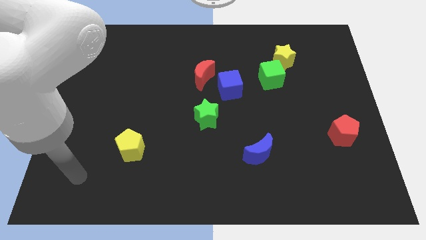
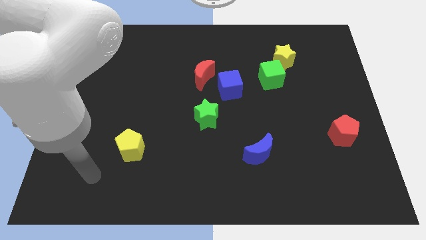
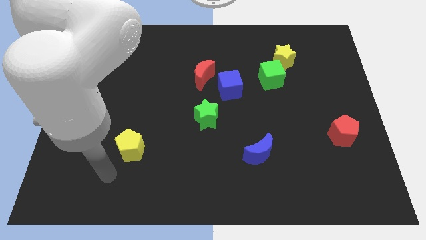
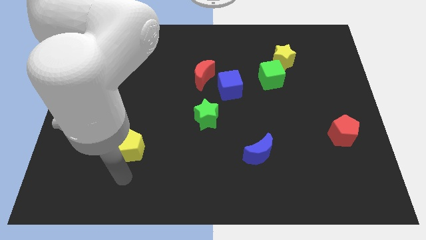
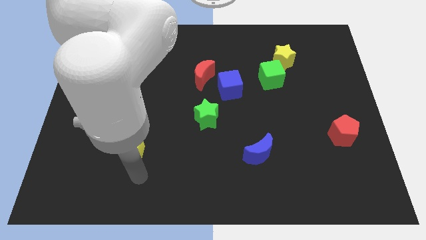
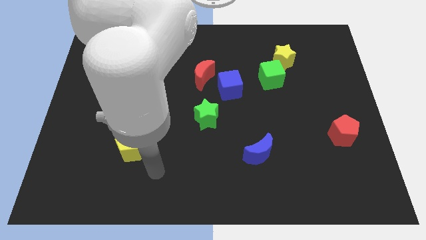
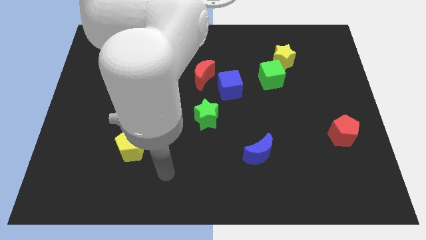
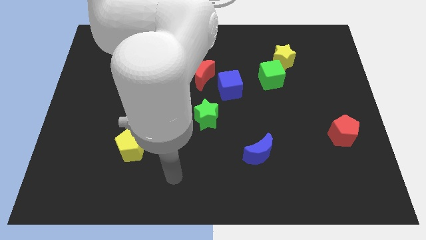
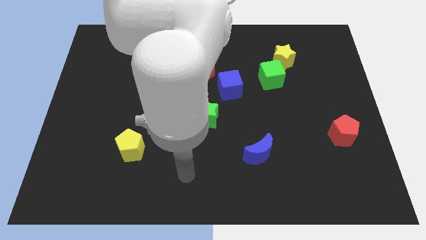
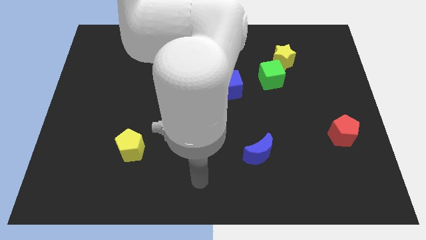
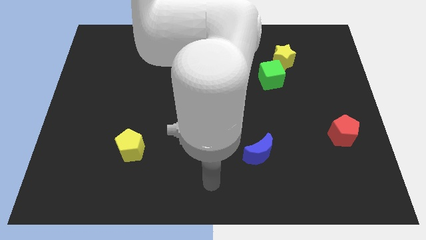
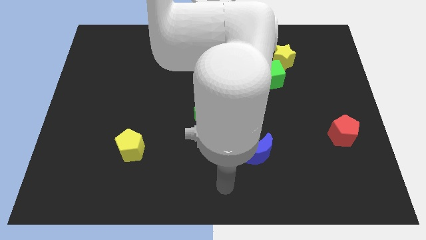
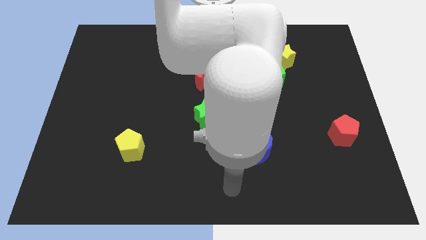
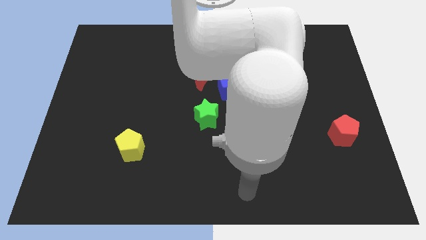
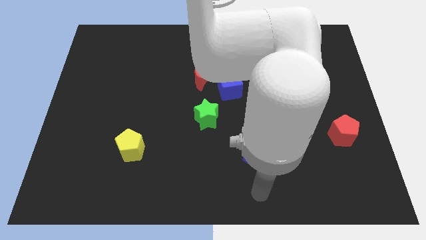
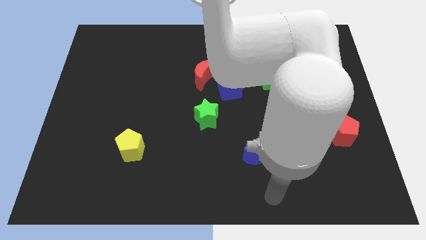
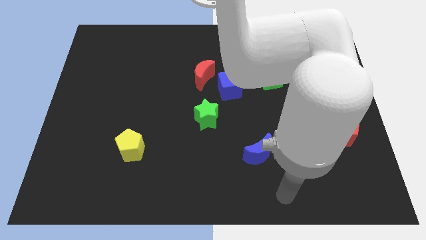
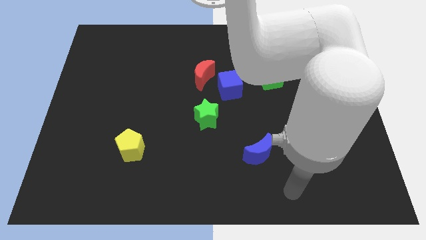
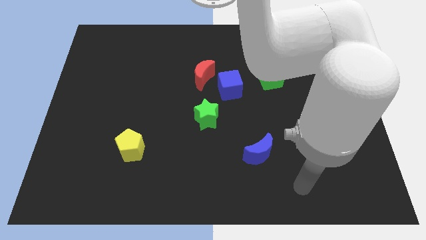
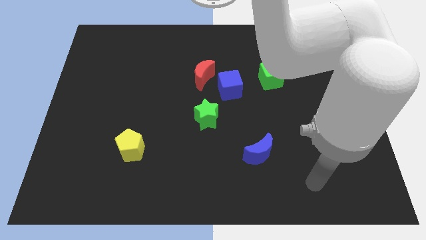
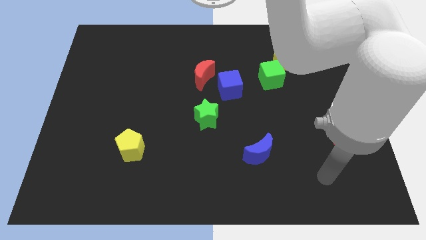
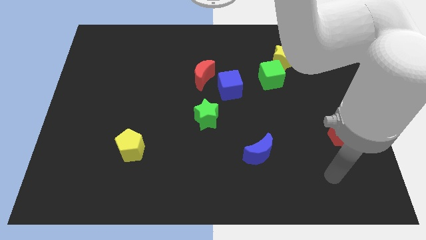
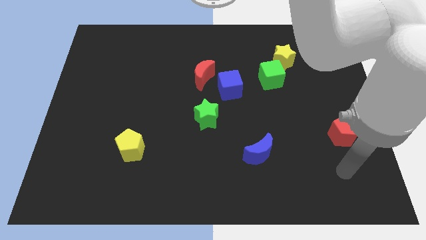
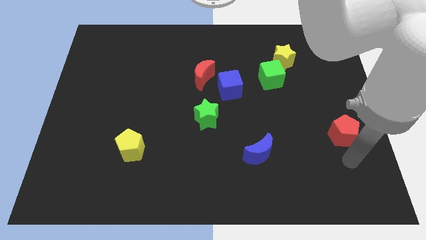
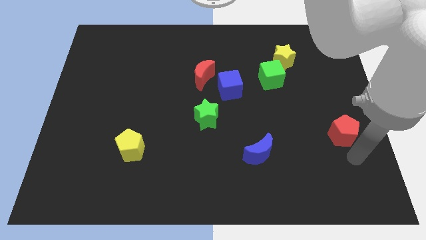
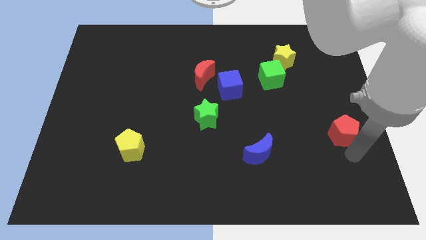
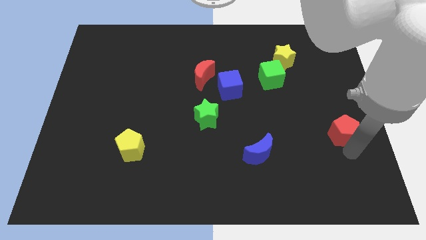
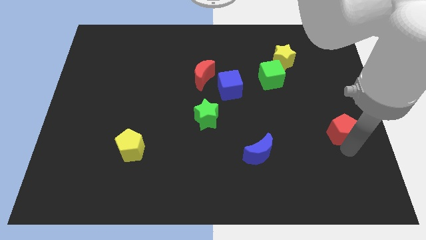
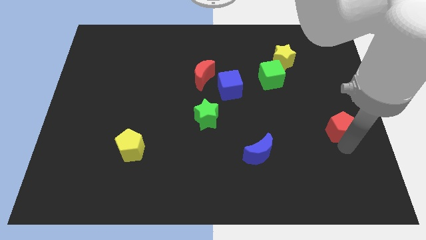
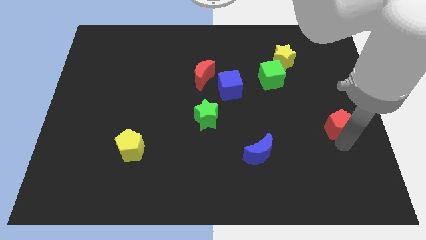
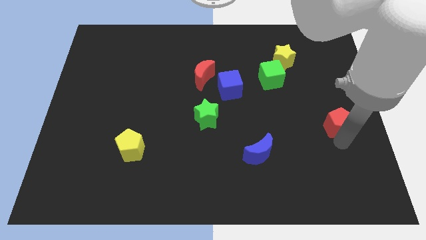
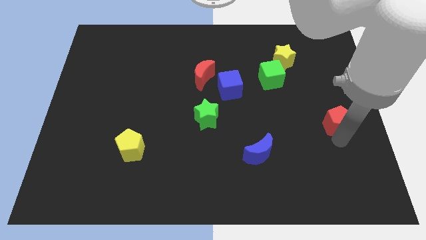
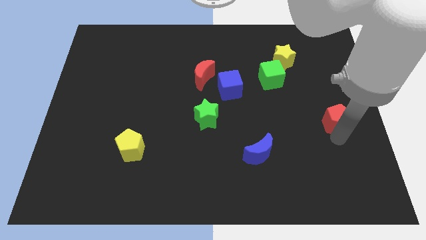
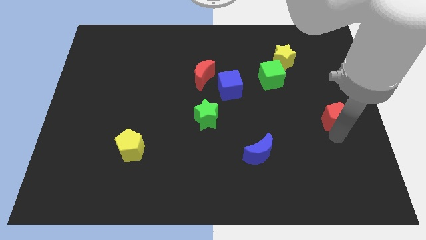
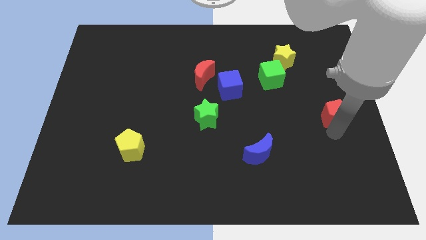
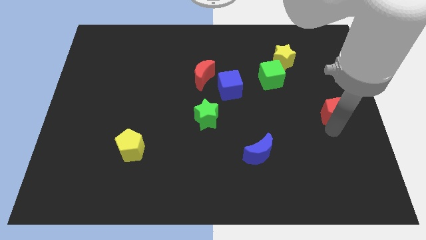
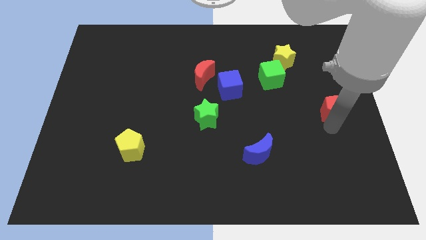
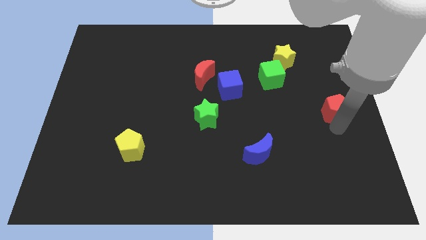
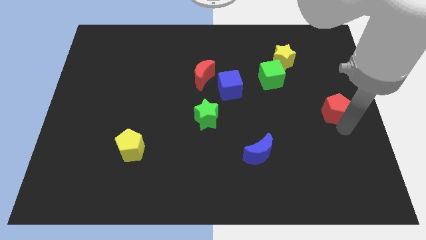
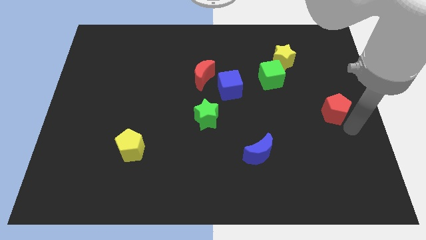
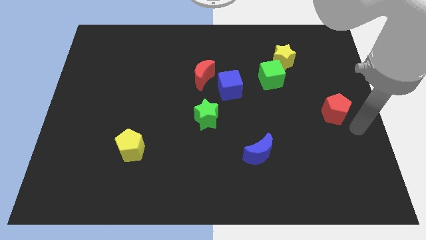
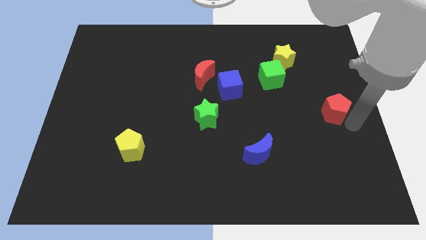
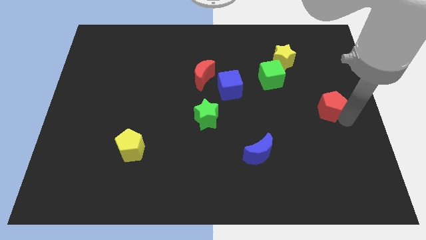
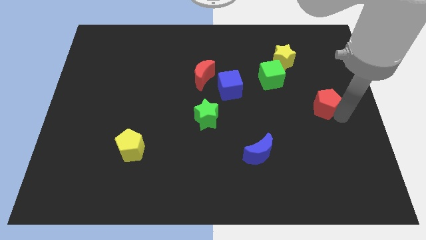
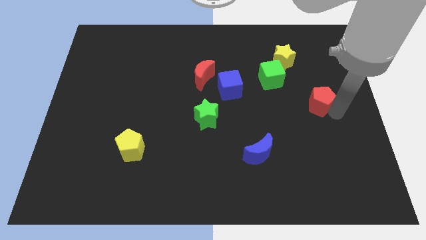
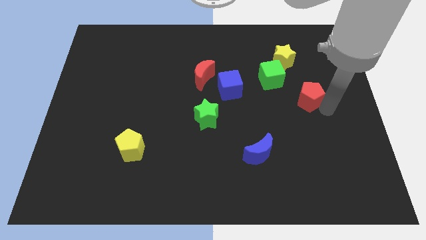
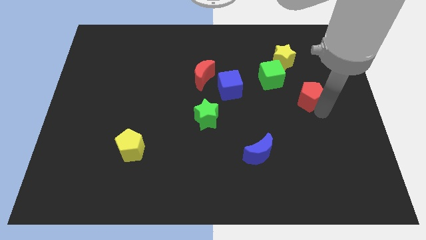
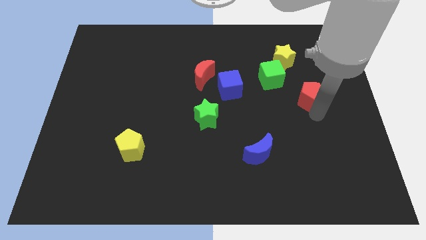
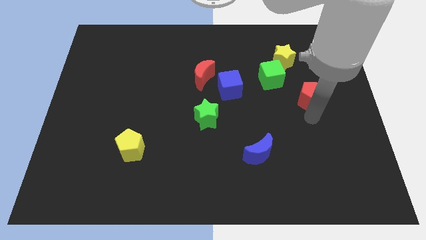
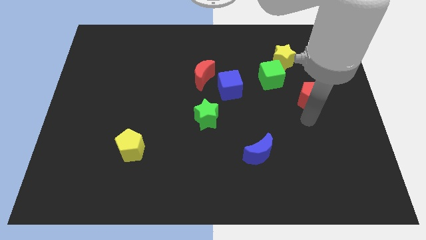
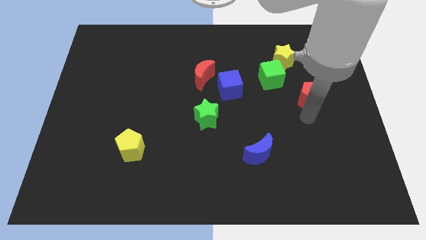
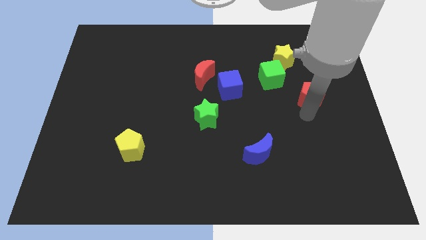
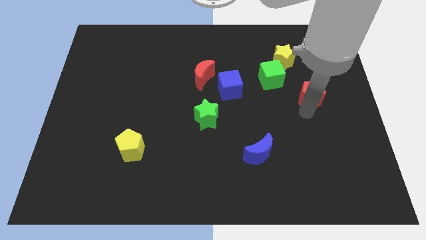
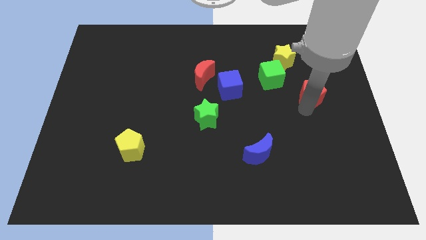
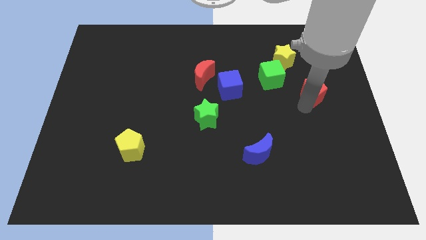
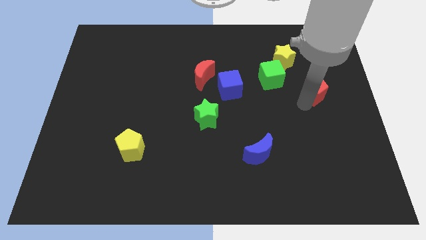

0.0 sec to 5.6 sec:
slide the red pentagon to the right side of the green cube

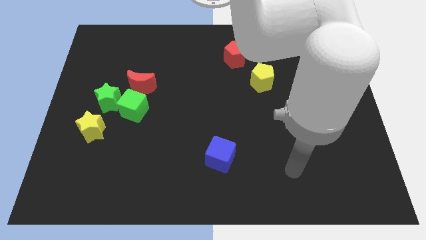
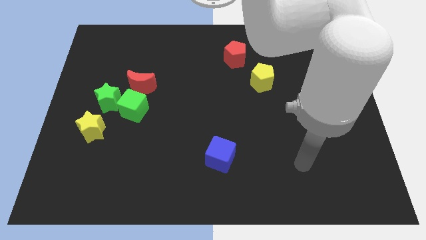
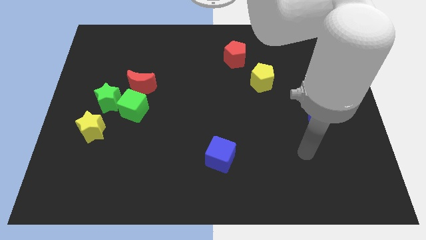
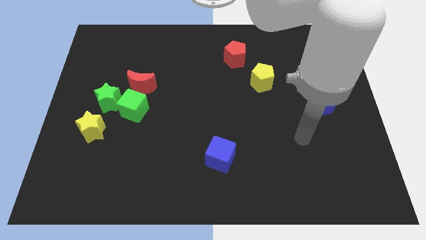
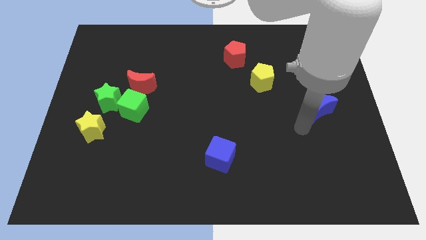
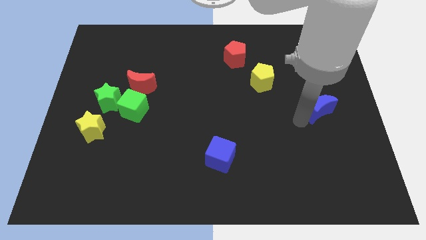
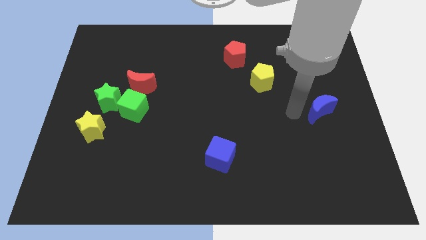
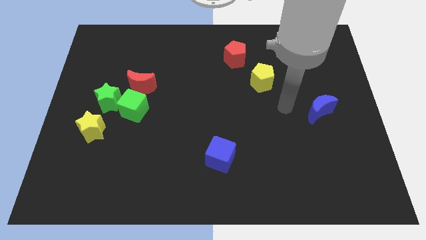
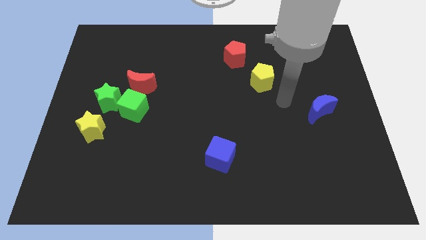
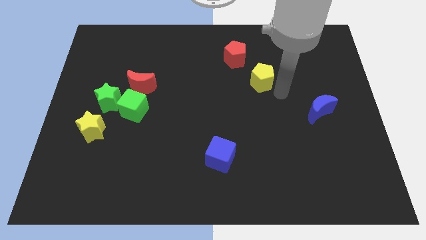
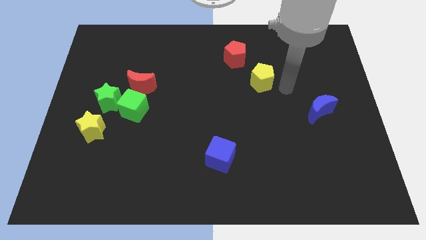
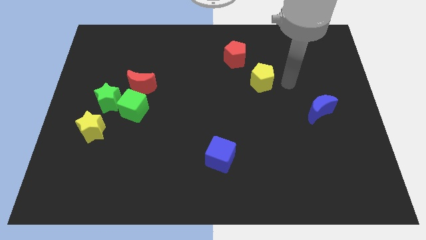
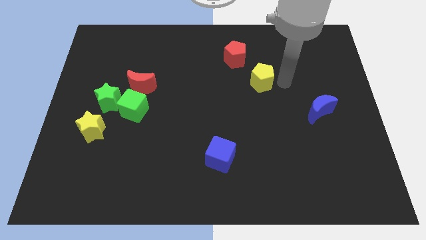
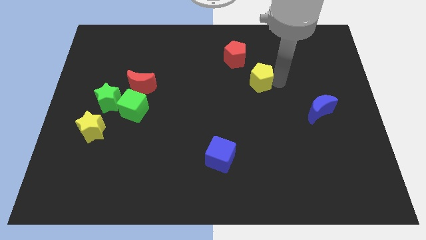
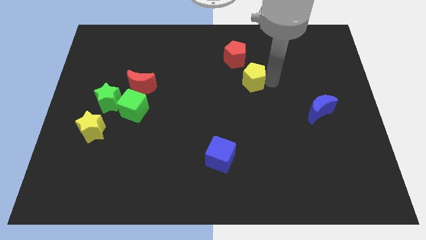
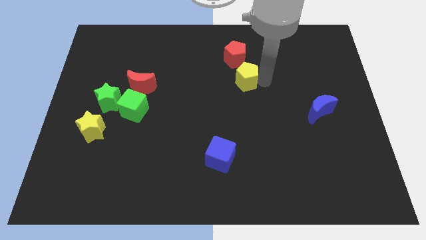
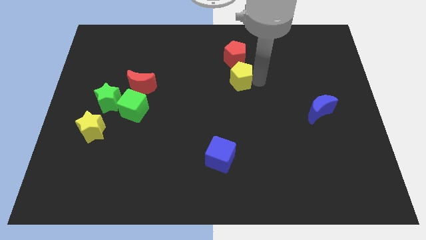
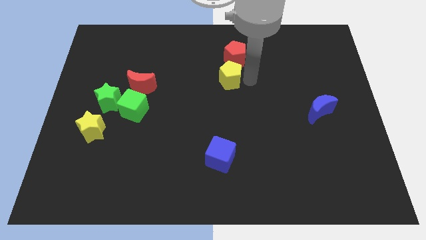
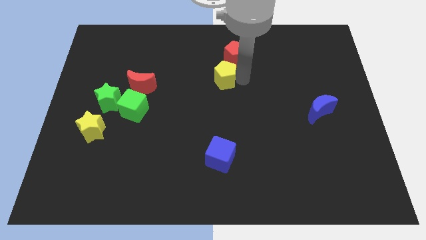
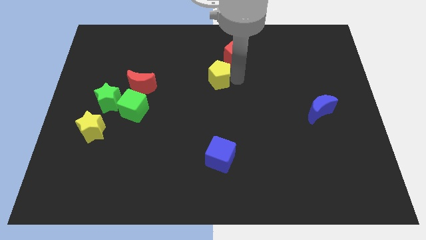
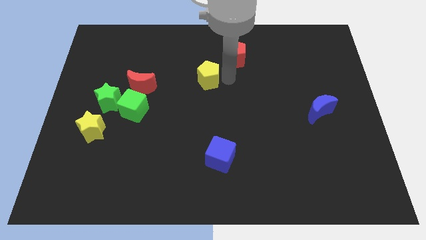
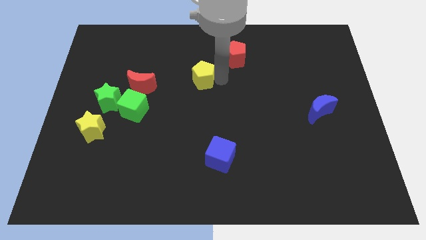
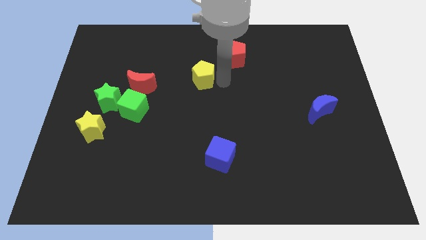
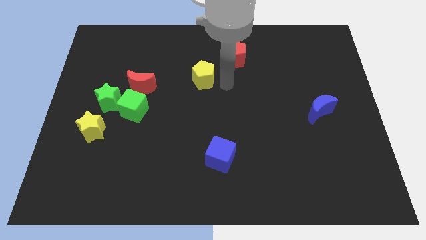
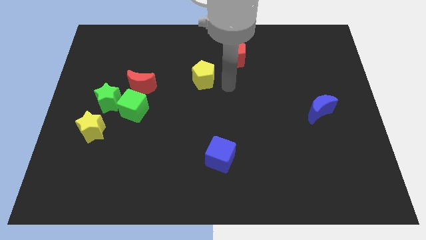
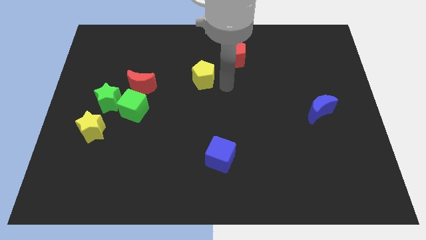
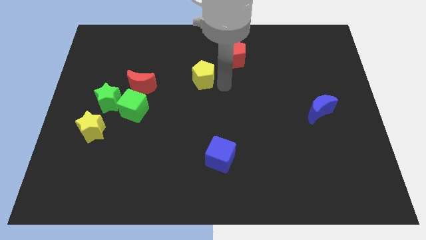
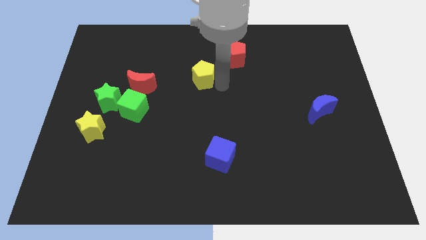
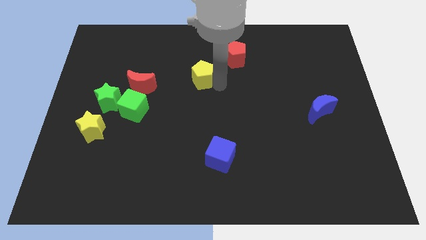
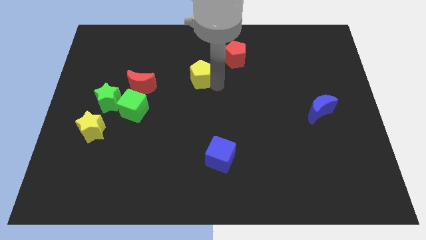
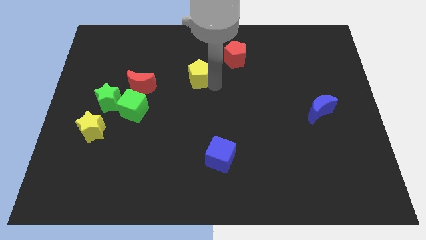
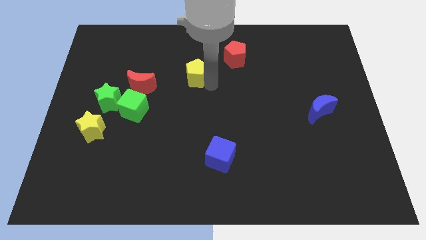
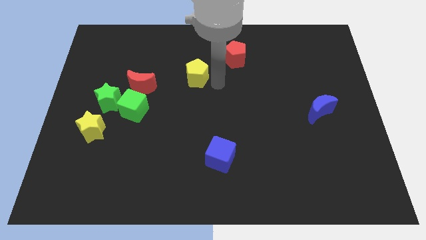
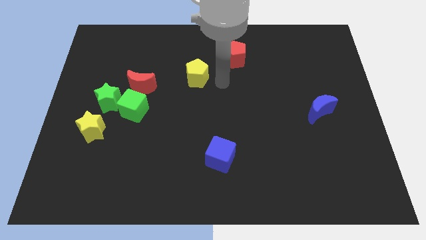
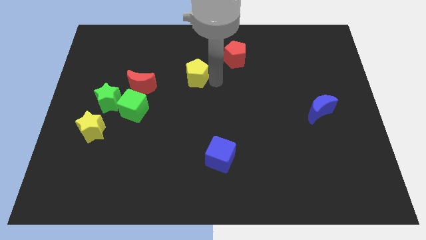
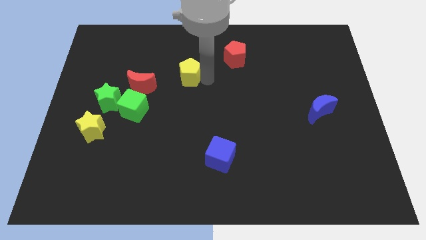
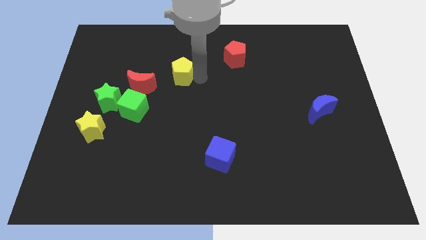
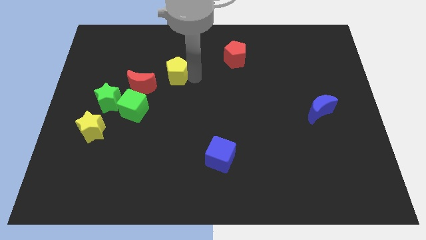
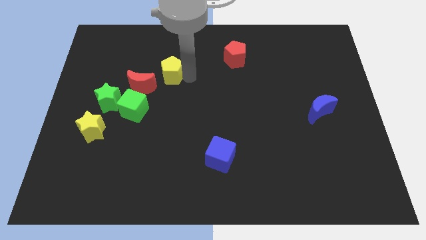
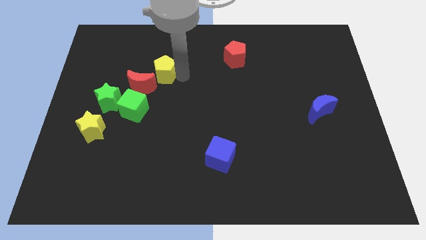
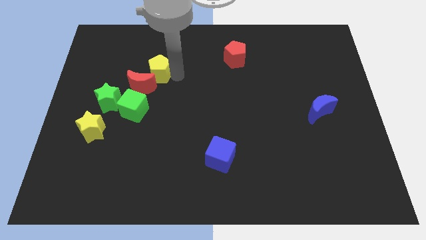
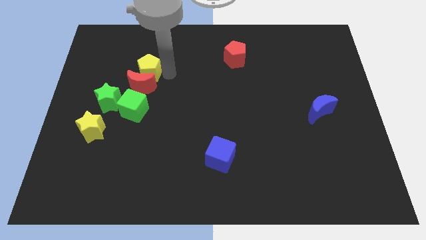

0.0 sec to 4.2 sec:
slide the yellow pentagon to the top left side of the red moon
